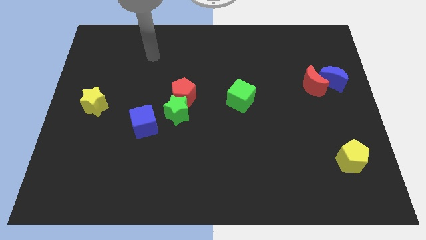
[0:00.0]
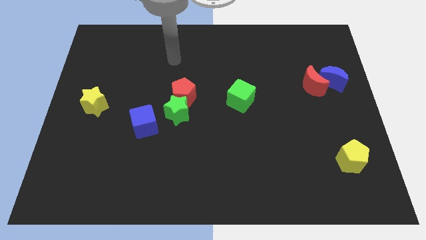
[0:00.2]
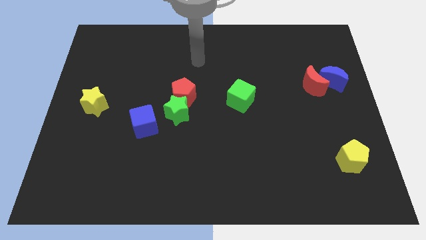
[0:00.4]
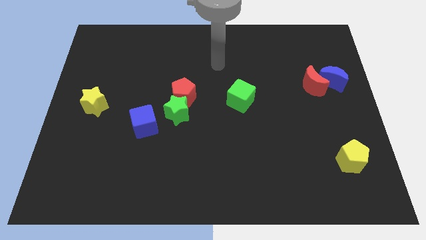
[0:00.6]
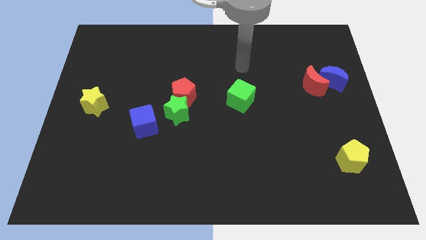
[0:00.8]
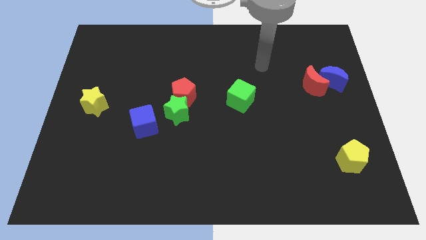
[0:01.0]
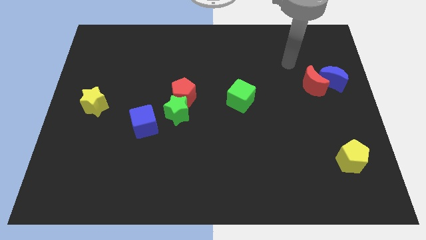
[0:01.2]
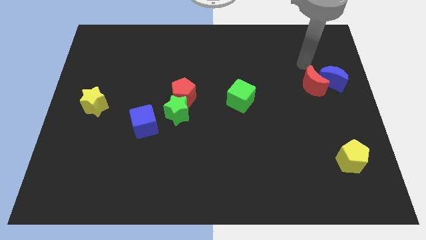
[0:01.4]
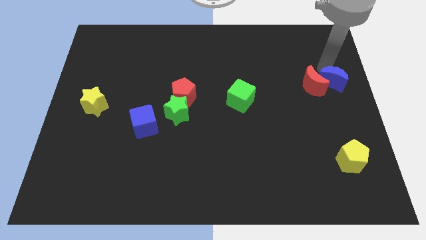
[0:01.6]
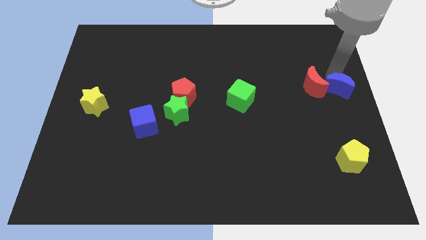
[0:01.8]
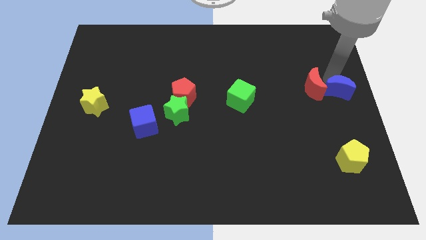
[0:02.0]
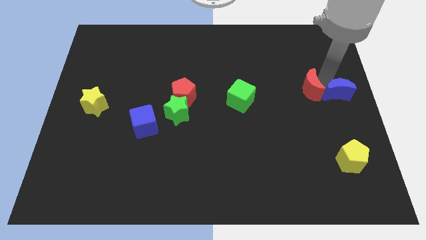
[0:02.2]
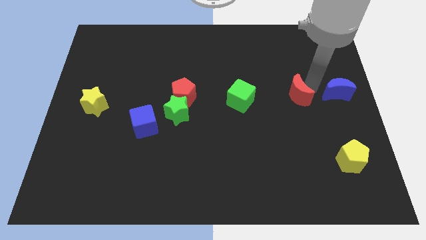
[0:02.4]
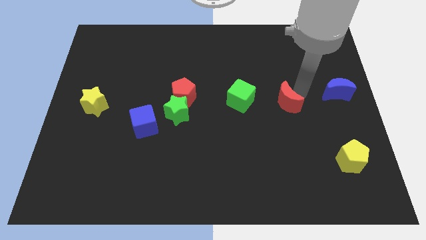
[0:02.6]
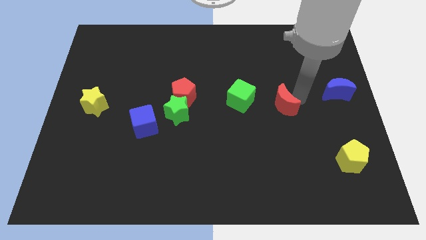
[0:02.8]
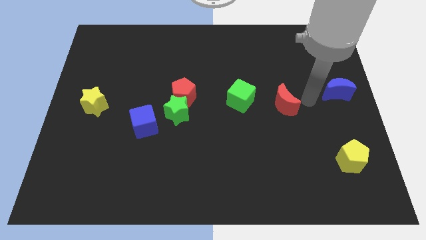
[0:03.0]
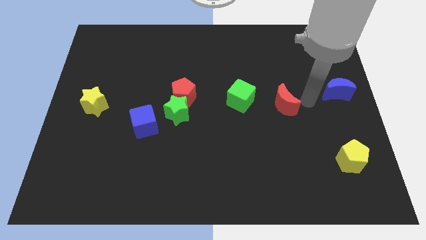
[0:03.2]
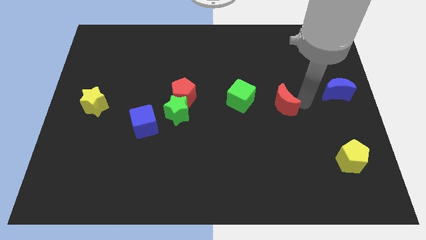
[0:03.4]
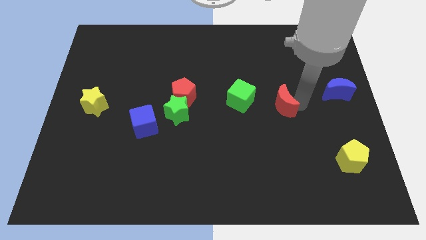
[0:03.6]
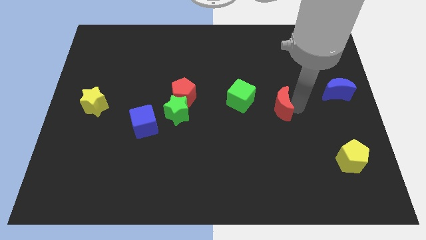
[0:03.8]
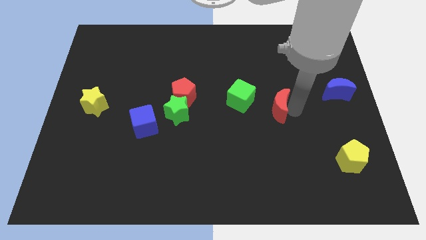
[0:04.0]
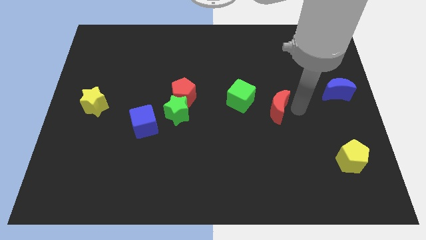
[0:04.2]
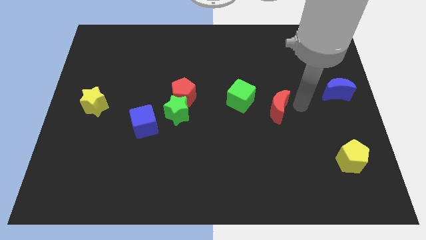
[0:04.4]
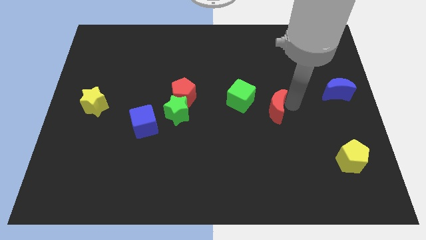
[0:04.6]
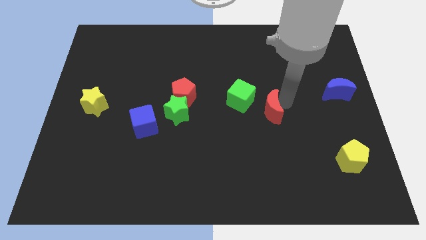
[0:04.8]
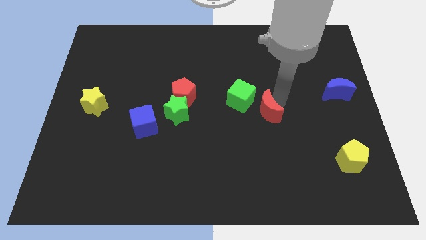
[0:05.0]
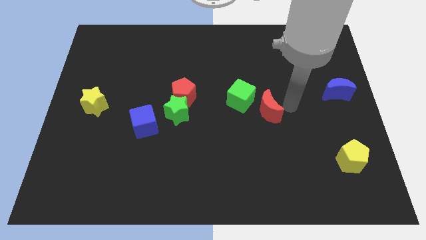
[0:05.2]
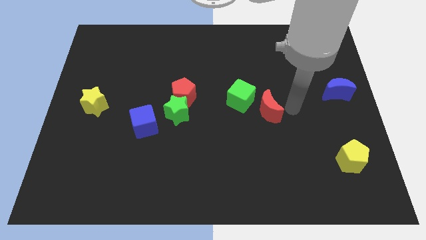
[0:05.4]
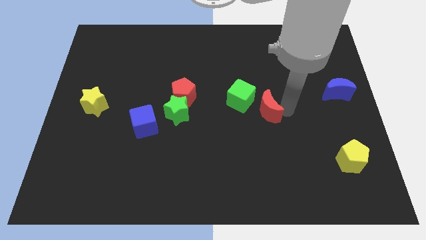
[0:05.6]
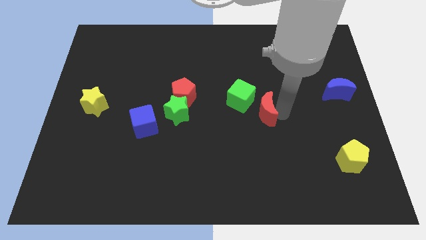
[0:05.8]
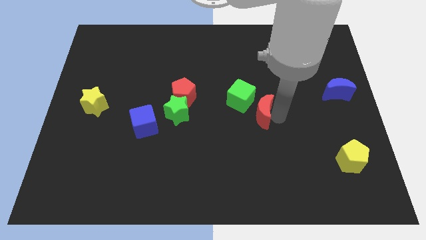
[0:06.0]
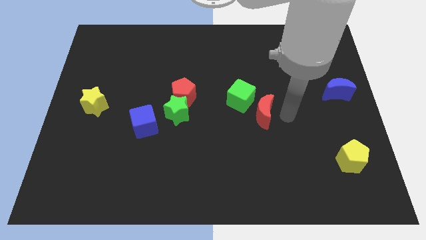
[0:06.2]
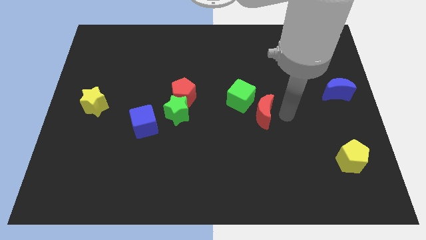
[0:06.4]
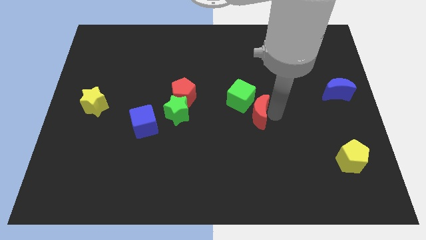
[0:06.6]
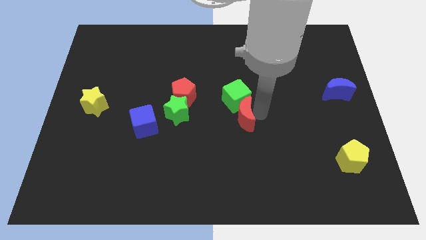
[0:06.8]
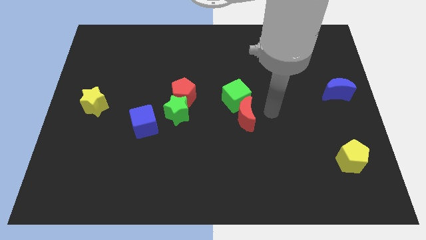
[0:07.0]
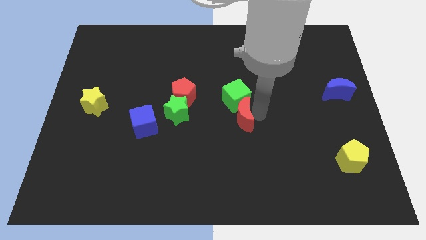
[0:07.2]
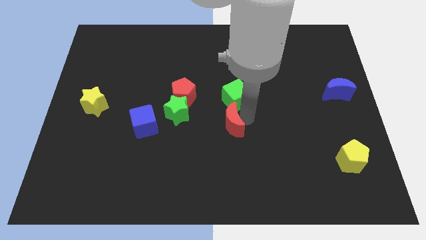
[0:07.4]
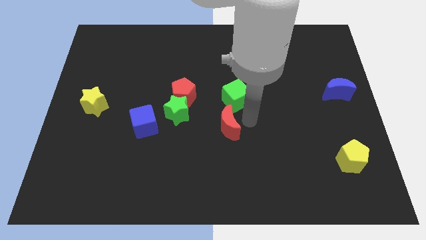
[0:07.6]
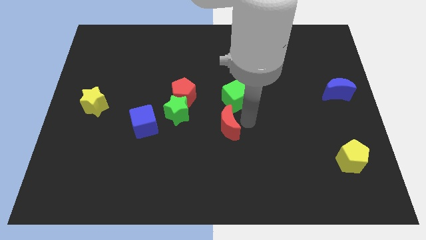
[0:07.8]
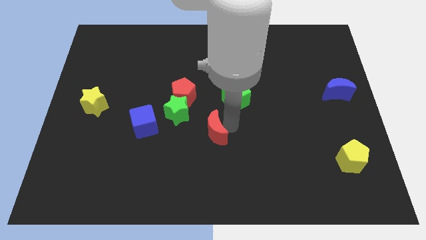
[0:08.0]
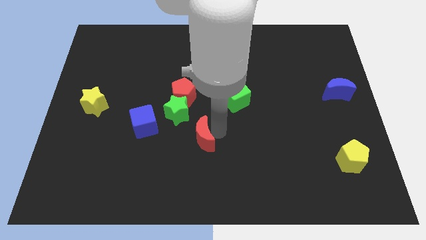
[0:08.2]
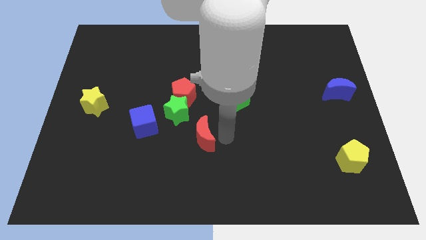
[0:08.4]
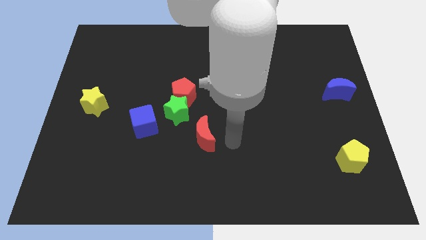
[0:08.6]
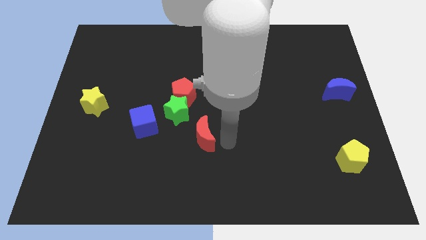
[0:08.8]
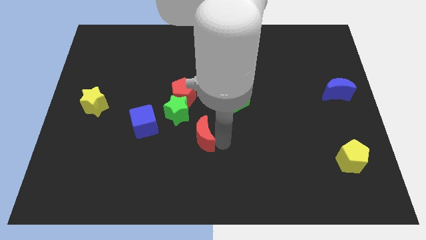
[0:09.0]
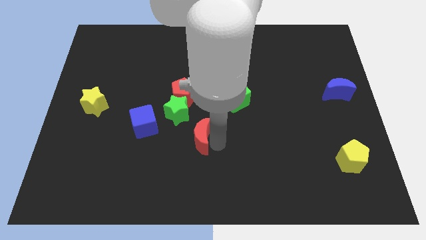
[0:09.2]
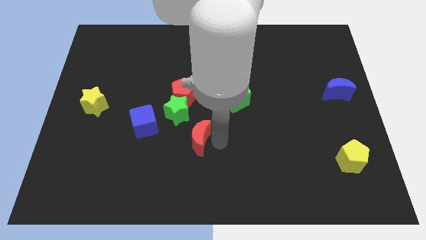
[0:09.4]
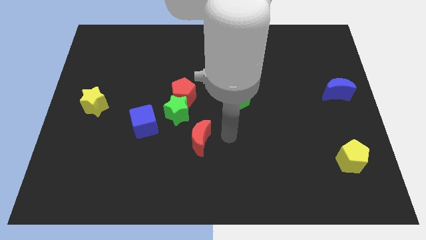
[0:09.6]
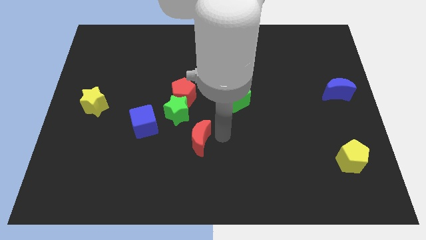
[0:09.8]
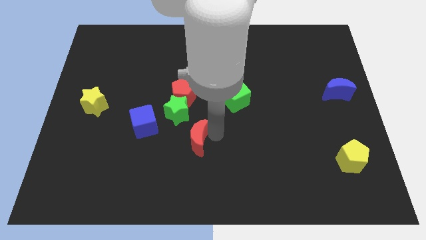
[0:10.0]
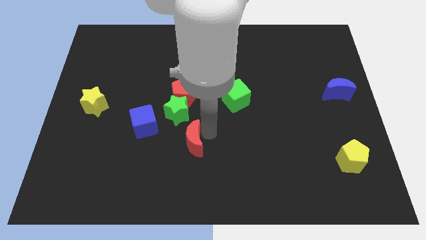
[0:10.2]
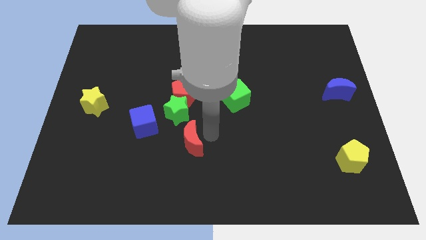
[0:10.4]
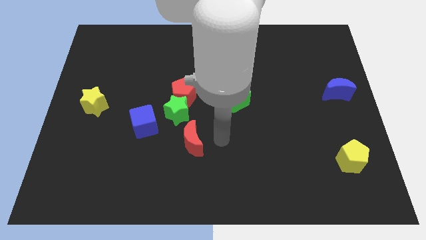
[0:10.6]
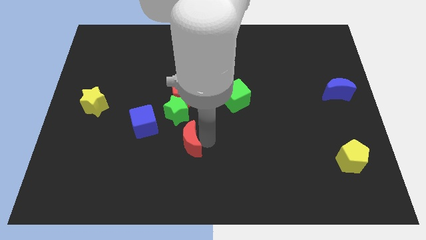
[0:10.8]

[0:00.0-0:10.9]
push the red moon diagonally down and to the right of the blue cube

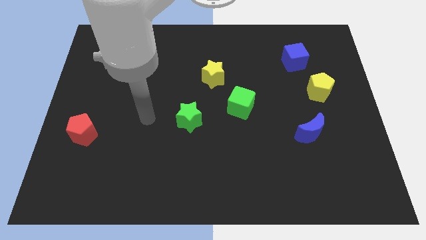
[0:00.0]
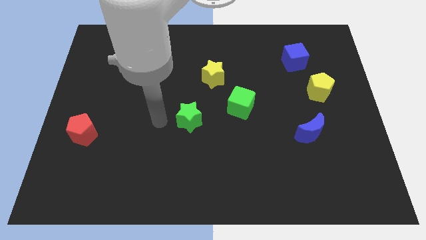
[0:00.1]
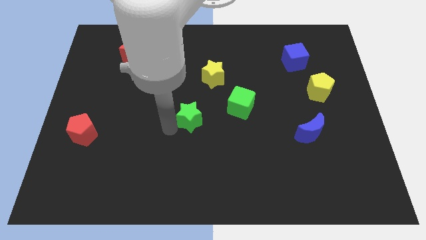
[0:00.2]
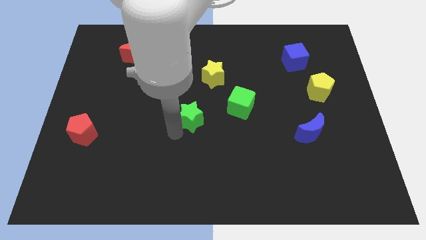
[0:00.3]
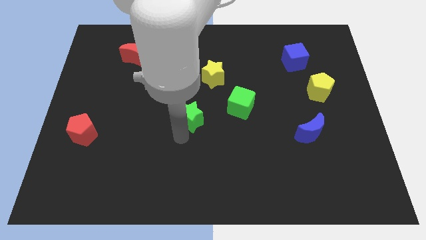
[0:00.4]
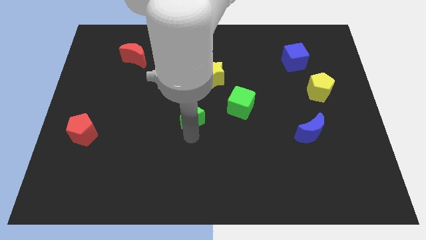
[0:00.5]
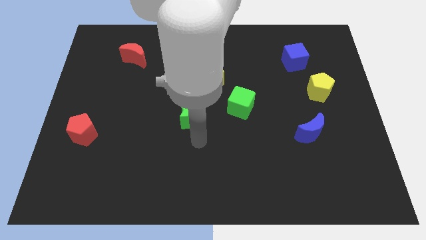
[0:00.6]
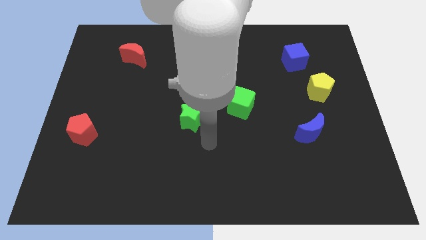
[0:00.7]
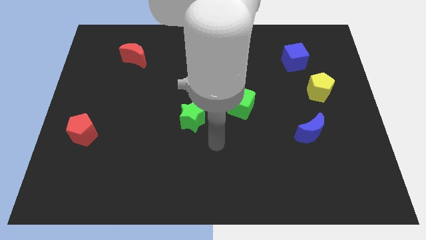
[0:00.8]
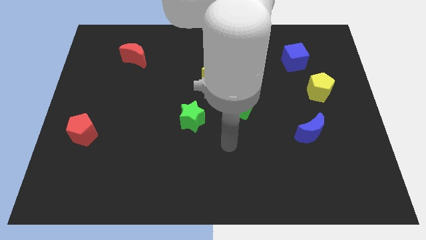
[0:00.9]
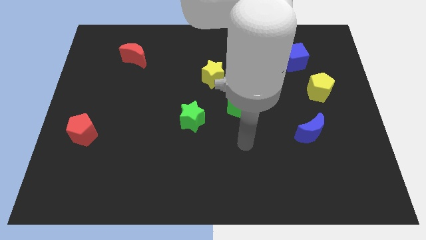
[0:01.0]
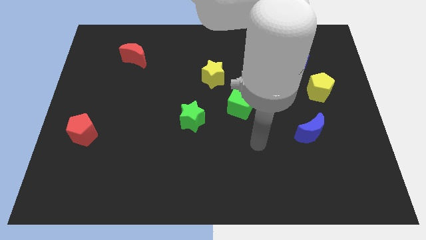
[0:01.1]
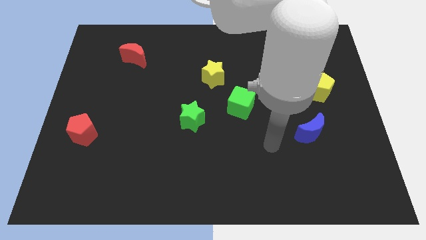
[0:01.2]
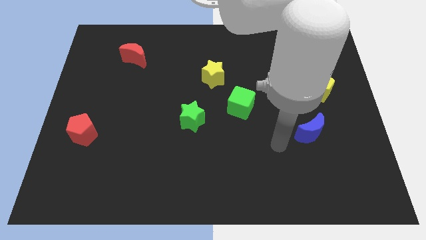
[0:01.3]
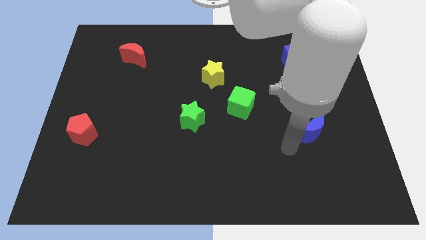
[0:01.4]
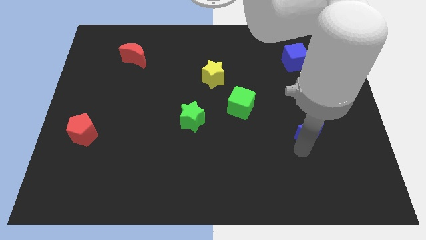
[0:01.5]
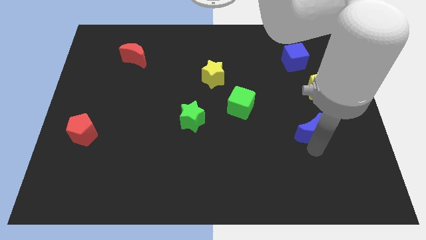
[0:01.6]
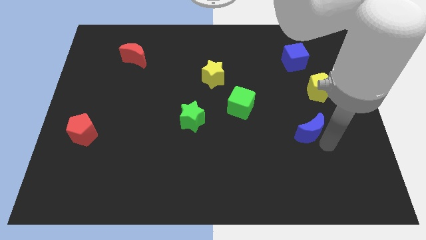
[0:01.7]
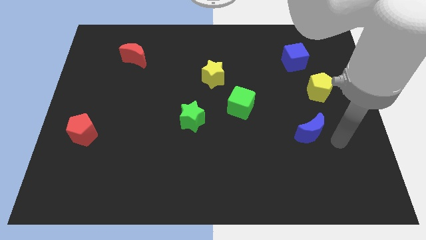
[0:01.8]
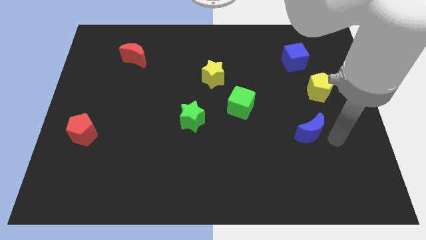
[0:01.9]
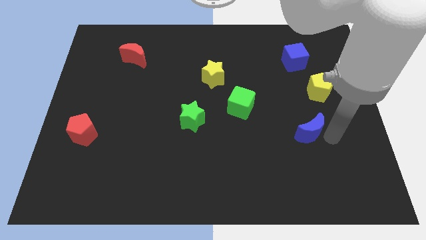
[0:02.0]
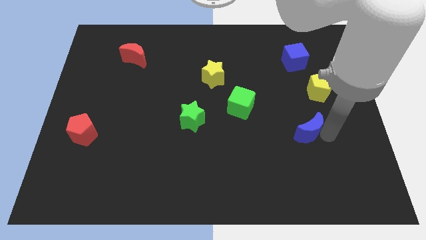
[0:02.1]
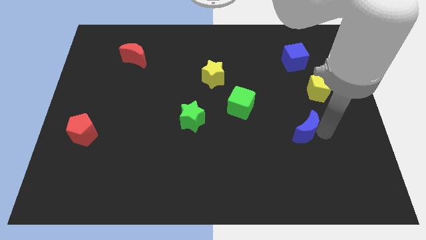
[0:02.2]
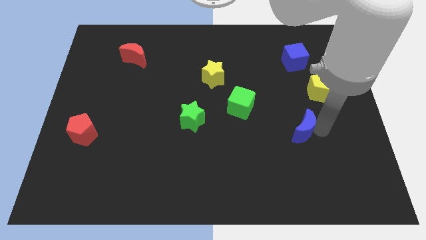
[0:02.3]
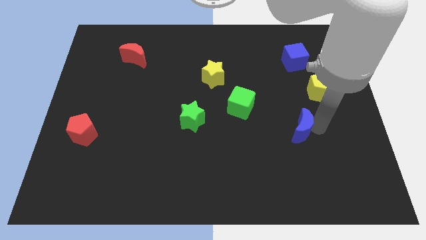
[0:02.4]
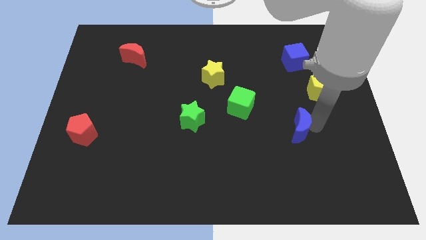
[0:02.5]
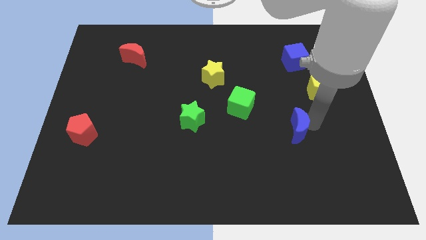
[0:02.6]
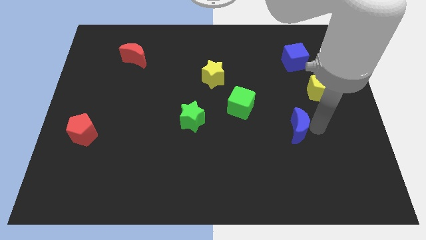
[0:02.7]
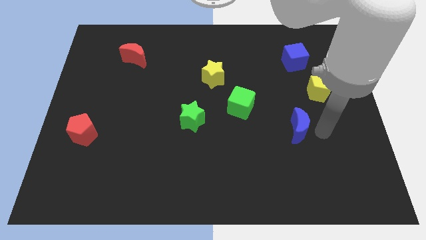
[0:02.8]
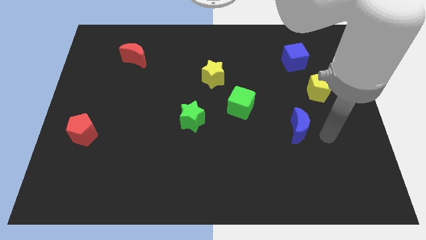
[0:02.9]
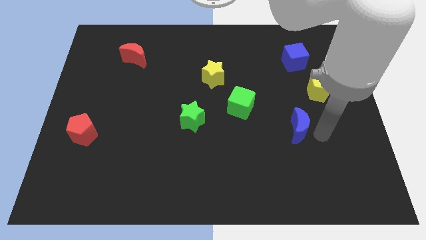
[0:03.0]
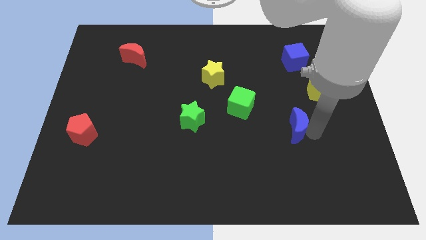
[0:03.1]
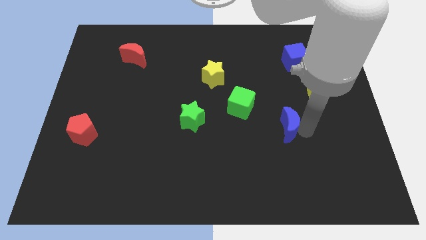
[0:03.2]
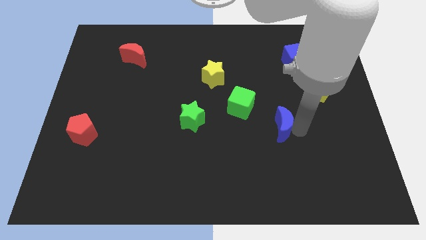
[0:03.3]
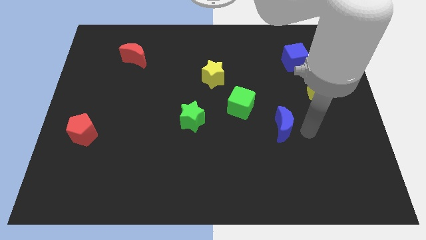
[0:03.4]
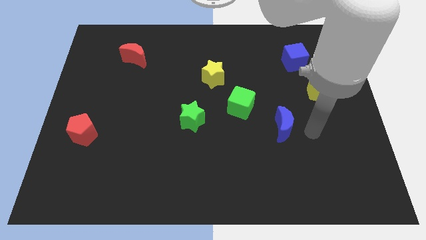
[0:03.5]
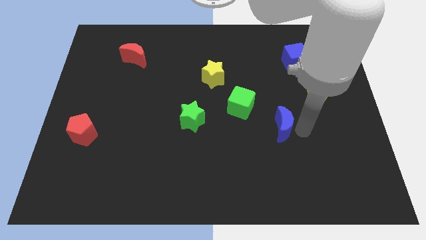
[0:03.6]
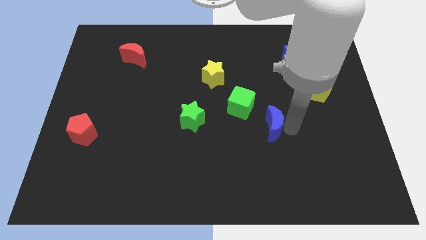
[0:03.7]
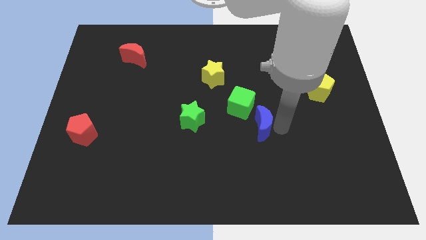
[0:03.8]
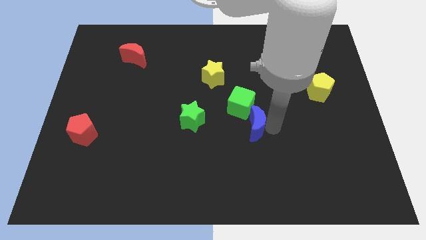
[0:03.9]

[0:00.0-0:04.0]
put the blue moon just right of the green star
